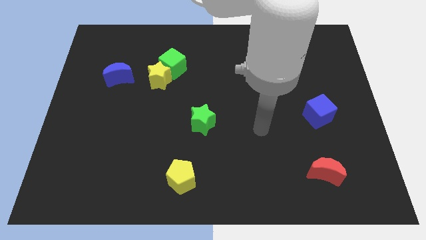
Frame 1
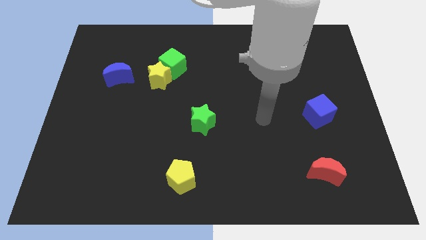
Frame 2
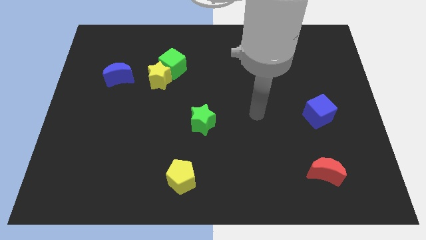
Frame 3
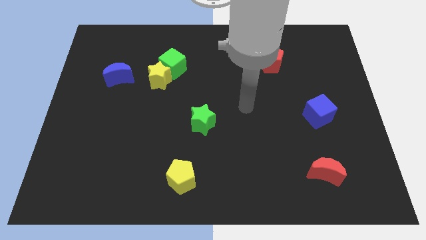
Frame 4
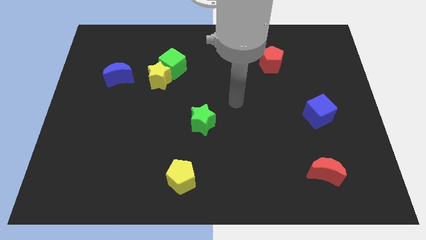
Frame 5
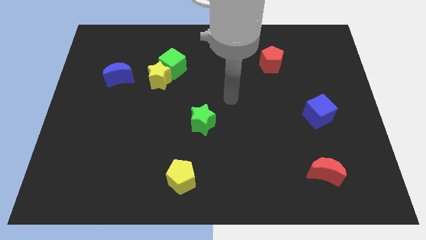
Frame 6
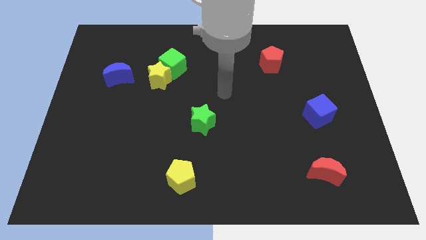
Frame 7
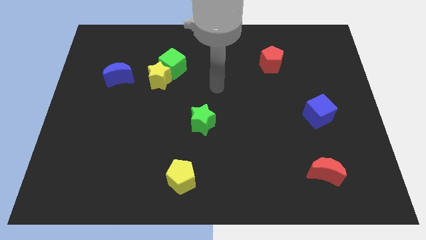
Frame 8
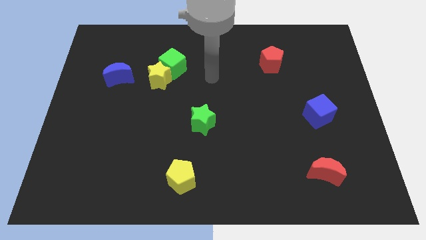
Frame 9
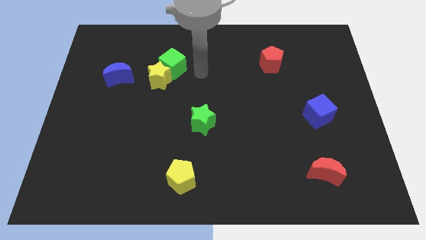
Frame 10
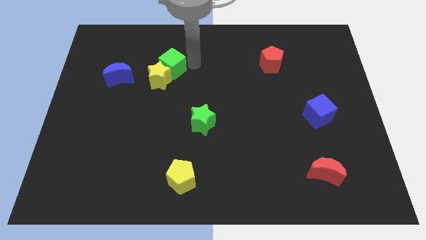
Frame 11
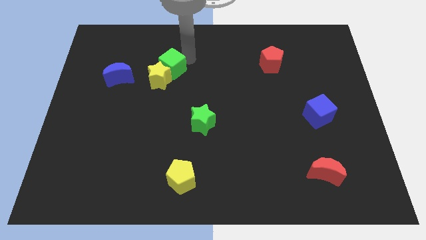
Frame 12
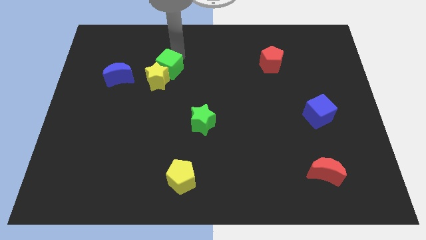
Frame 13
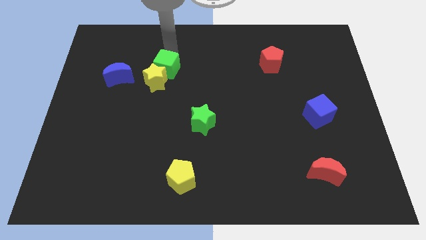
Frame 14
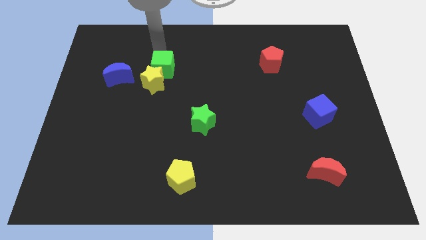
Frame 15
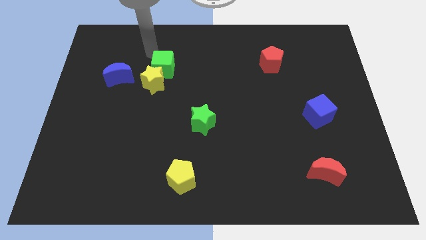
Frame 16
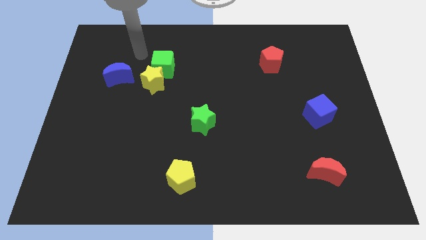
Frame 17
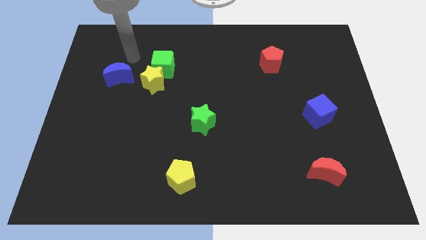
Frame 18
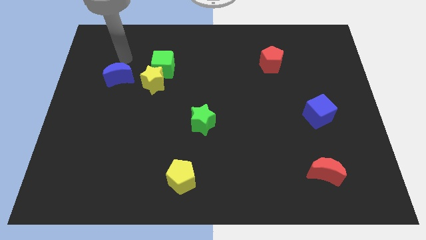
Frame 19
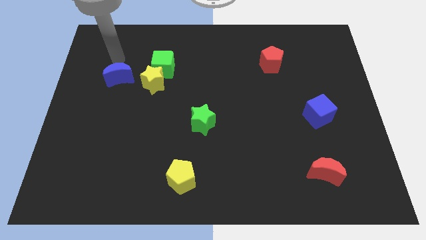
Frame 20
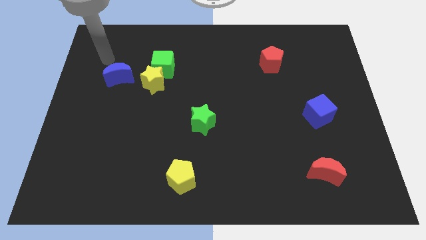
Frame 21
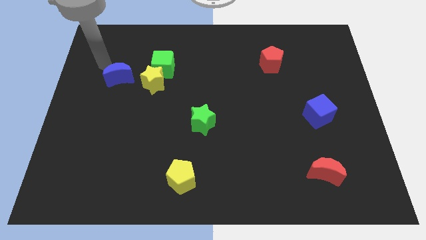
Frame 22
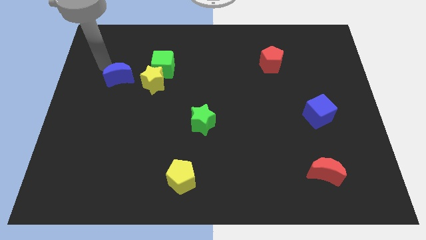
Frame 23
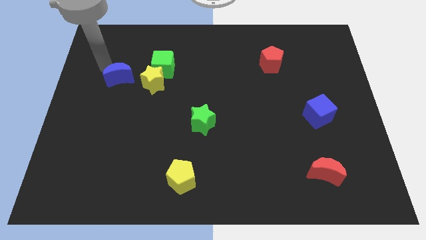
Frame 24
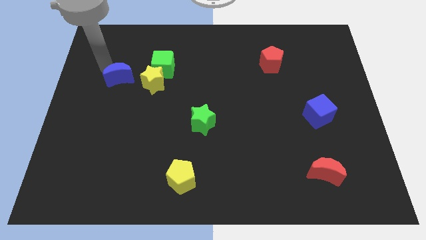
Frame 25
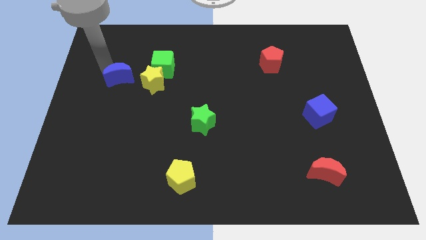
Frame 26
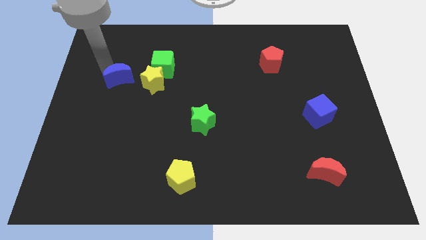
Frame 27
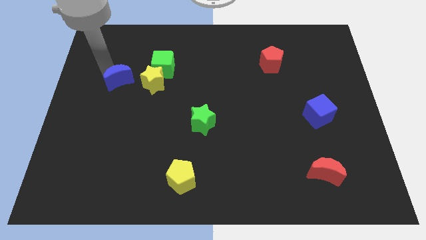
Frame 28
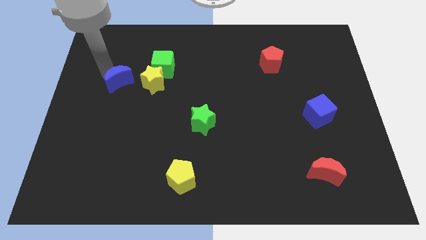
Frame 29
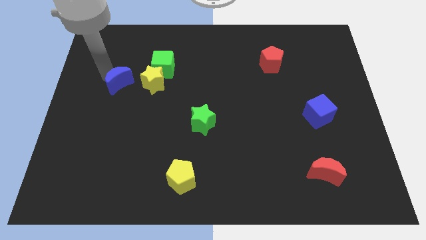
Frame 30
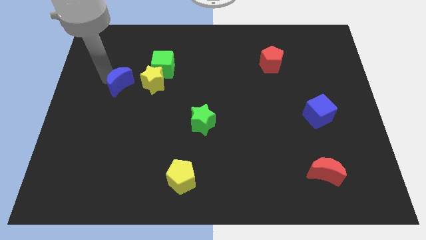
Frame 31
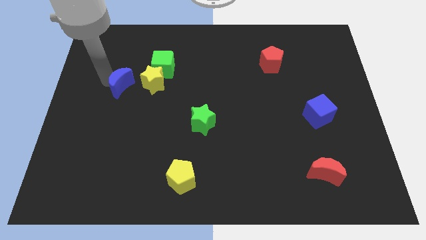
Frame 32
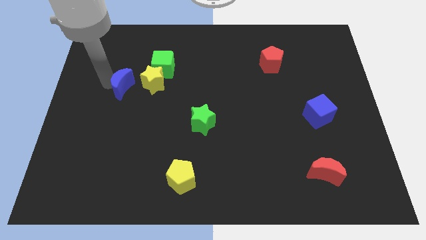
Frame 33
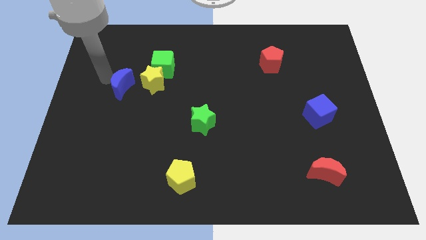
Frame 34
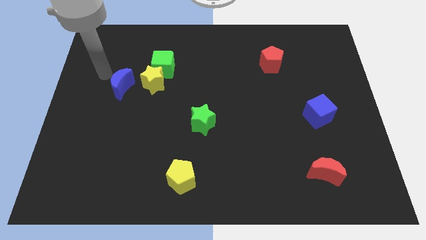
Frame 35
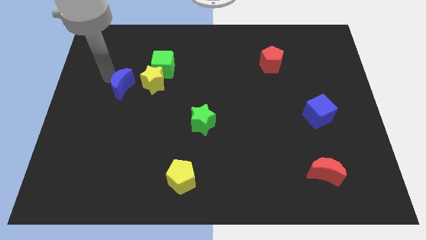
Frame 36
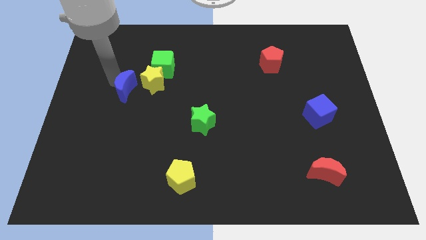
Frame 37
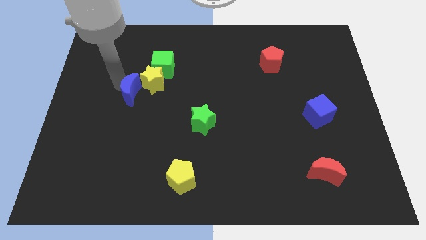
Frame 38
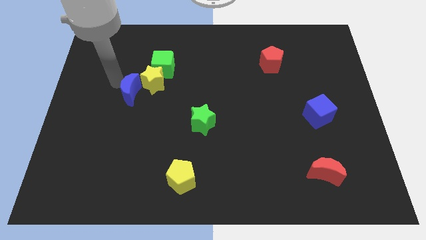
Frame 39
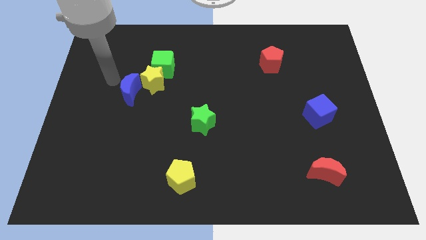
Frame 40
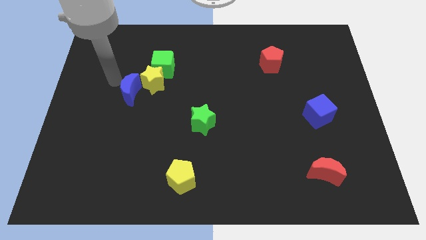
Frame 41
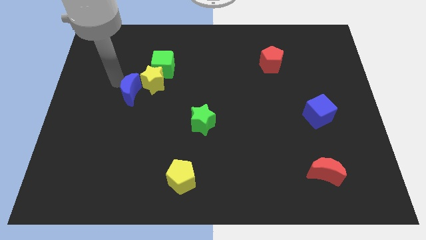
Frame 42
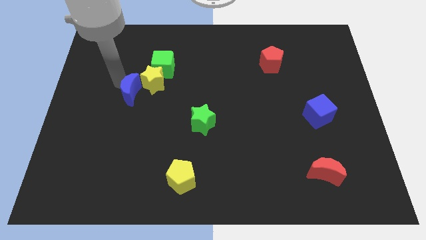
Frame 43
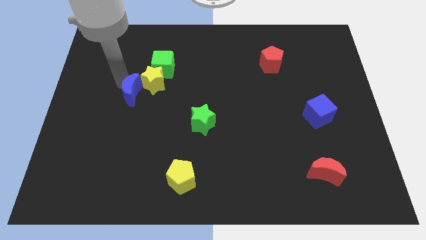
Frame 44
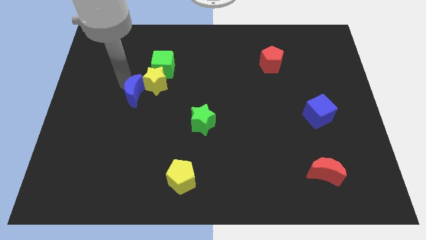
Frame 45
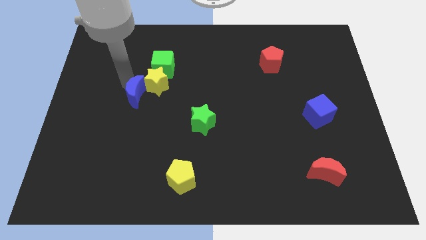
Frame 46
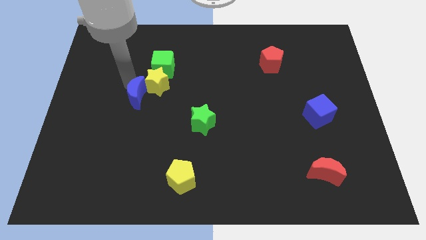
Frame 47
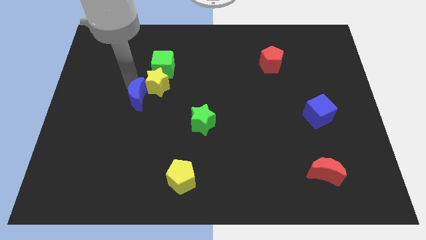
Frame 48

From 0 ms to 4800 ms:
push the blue moon below the yellow star

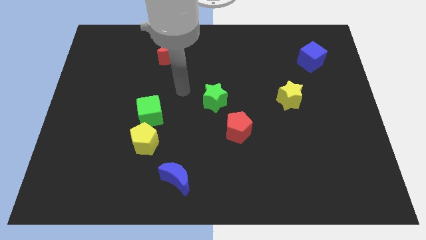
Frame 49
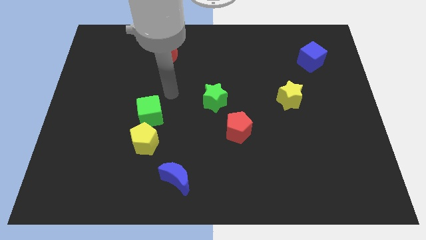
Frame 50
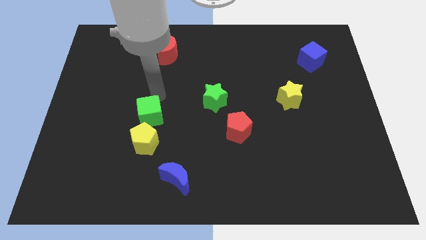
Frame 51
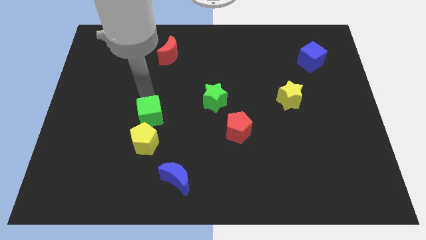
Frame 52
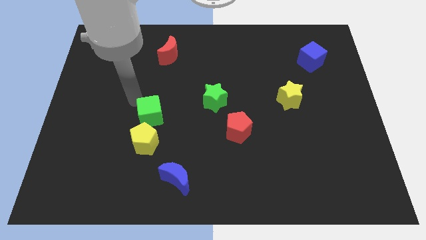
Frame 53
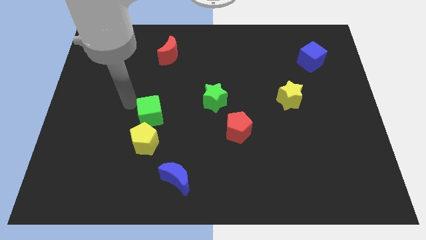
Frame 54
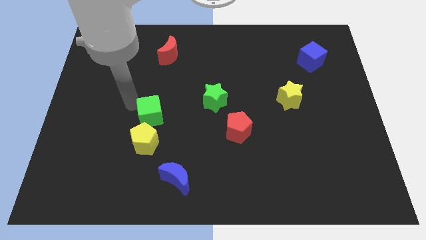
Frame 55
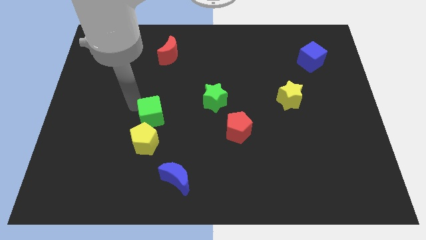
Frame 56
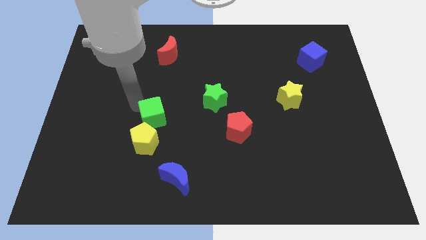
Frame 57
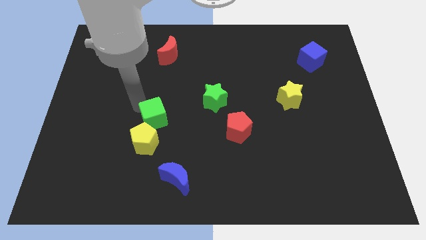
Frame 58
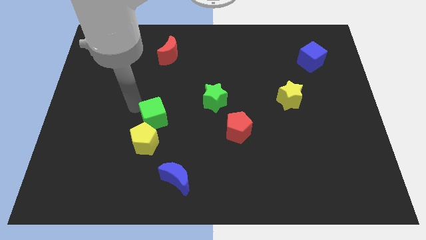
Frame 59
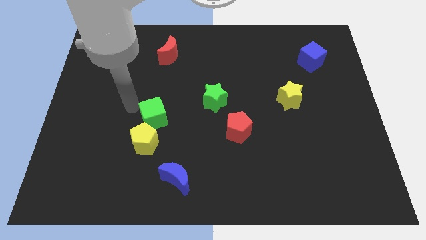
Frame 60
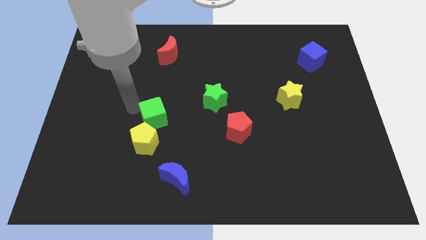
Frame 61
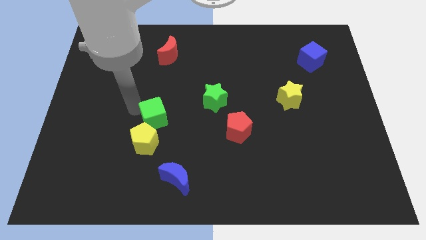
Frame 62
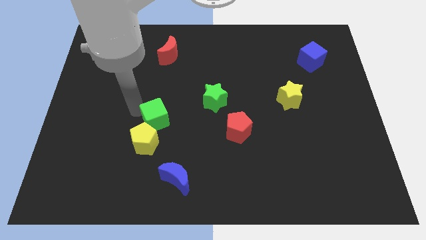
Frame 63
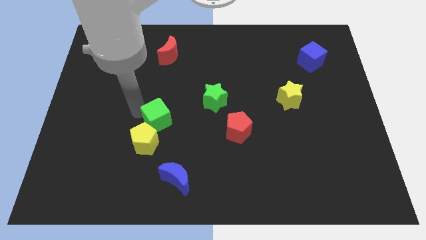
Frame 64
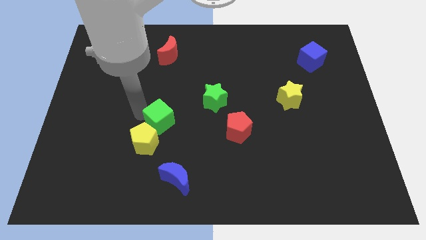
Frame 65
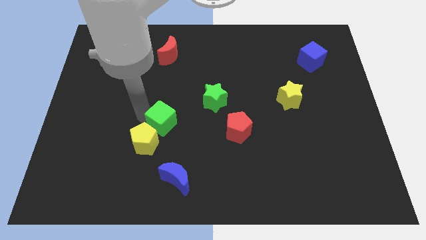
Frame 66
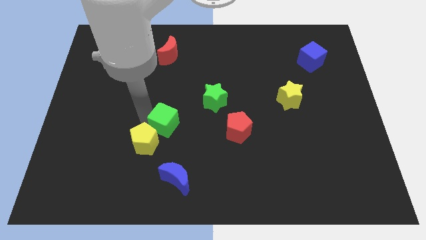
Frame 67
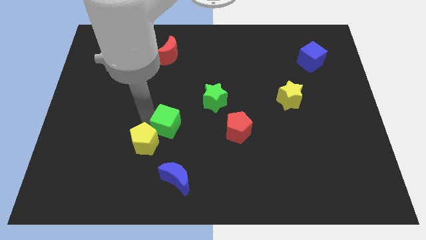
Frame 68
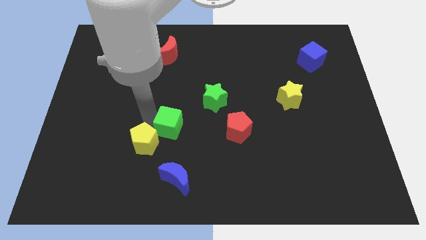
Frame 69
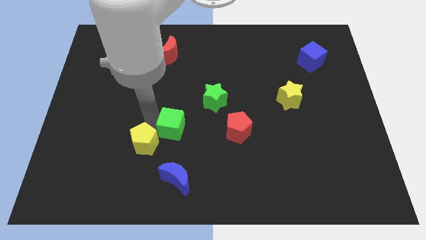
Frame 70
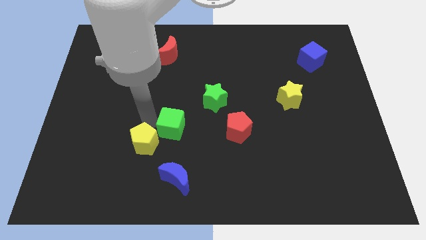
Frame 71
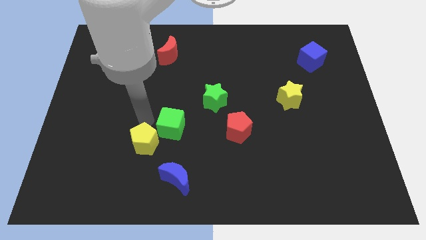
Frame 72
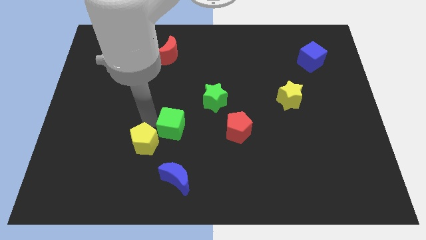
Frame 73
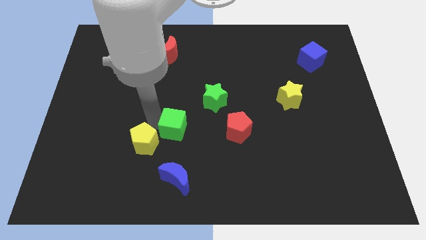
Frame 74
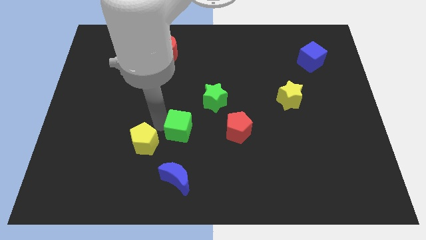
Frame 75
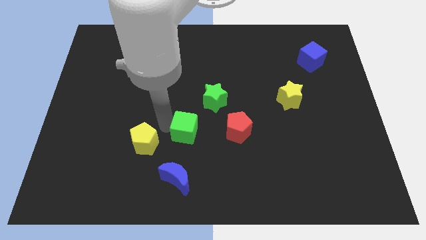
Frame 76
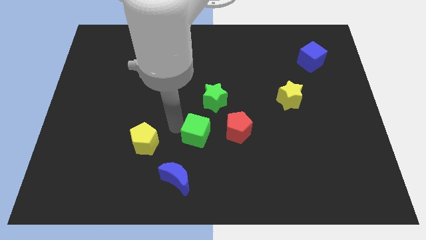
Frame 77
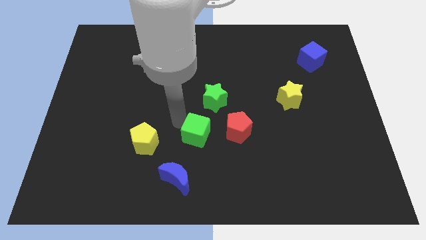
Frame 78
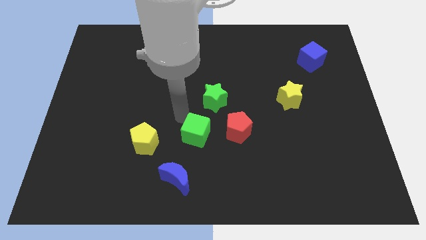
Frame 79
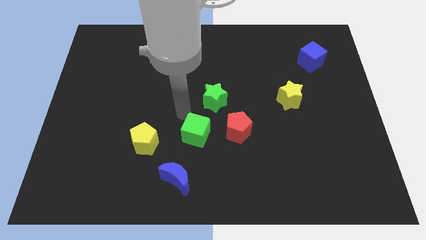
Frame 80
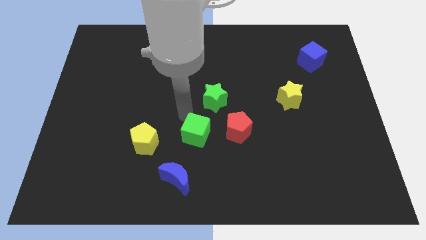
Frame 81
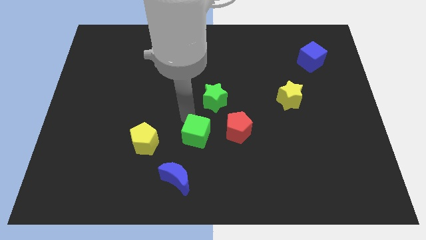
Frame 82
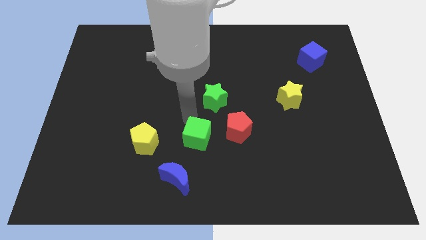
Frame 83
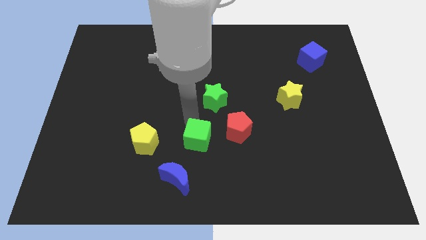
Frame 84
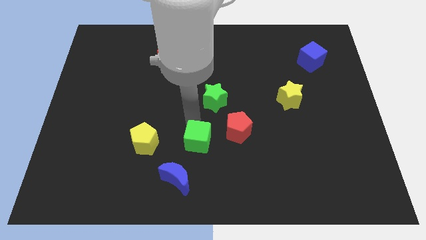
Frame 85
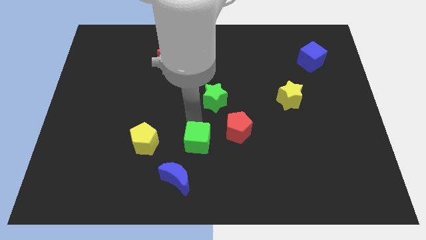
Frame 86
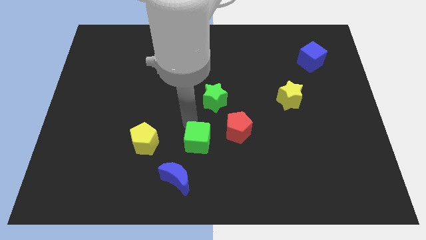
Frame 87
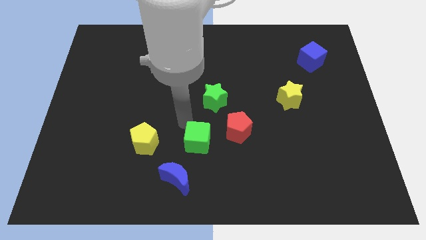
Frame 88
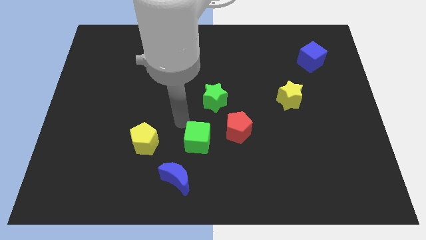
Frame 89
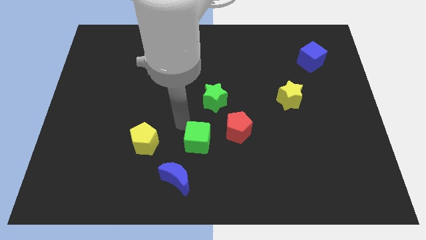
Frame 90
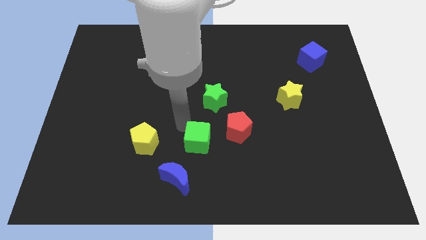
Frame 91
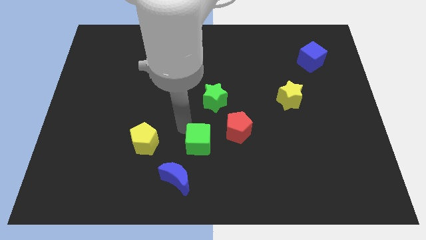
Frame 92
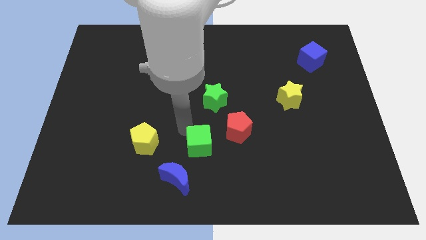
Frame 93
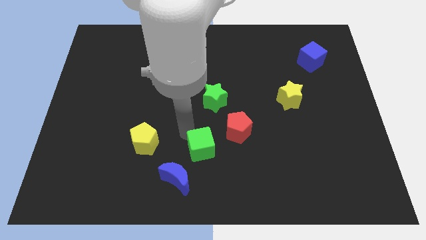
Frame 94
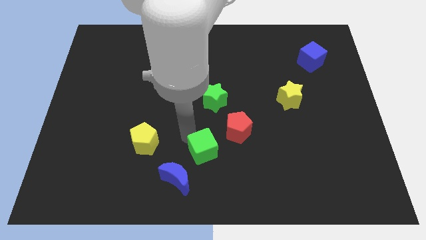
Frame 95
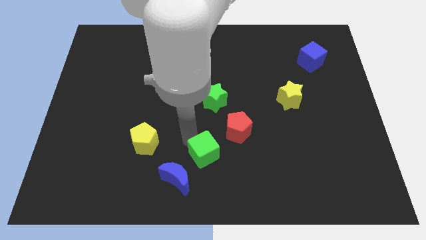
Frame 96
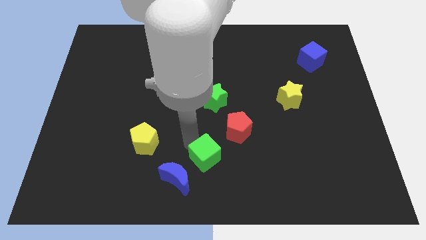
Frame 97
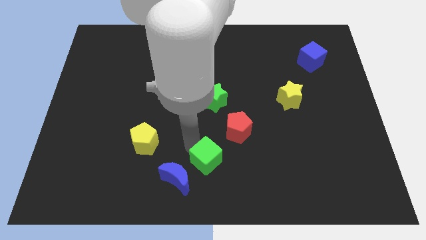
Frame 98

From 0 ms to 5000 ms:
push the green cube just right of the blue moon
